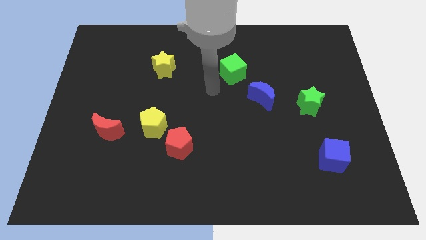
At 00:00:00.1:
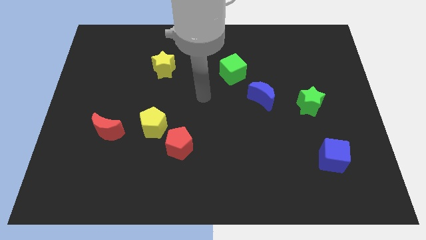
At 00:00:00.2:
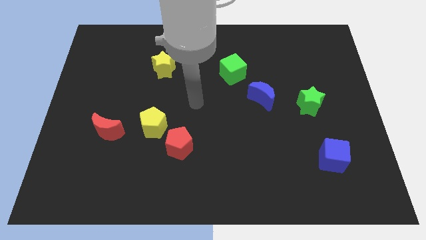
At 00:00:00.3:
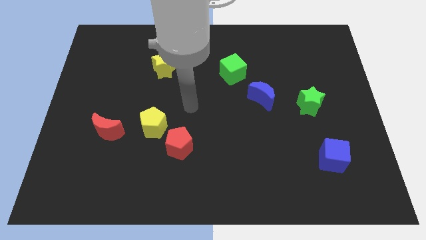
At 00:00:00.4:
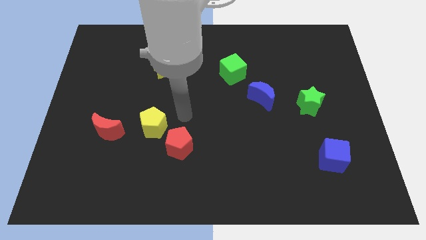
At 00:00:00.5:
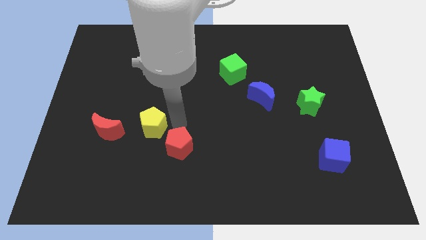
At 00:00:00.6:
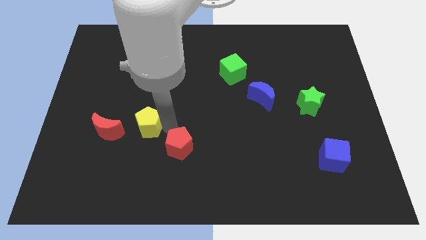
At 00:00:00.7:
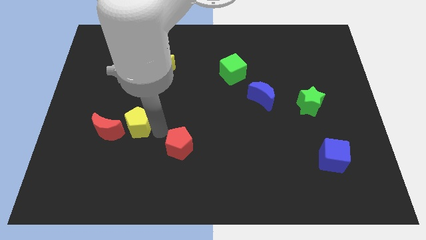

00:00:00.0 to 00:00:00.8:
pull the red pentagon apart from the yellow pentagon

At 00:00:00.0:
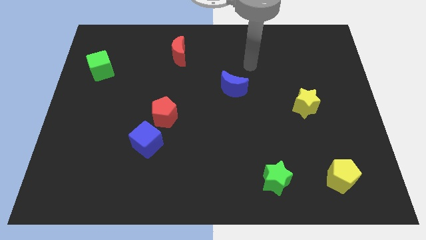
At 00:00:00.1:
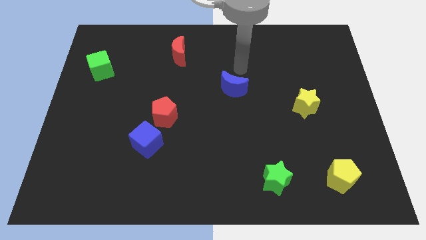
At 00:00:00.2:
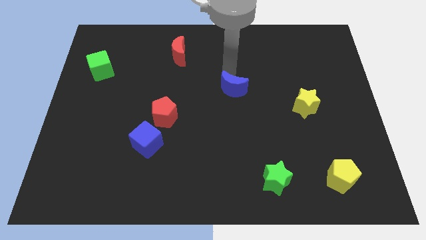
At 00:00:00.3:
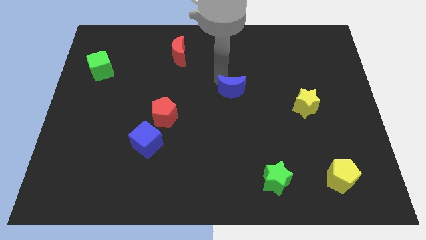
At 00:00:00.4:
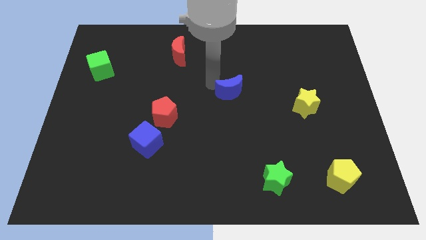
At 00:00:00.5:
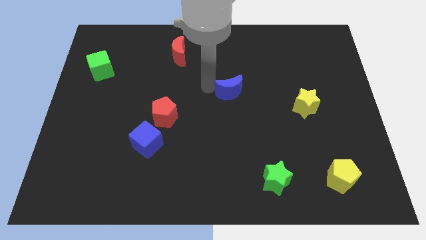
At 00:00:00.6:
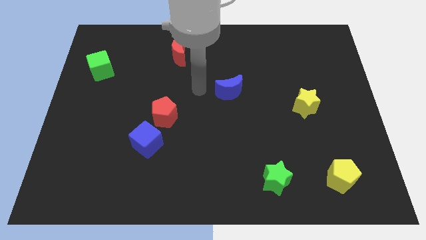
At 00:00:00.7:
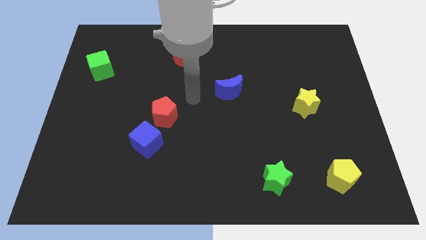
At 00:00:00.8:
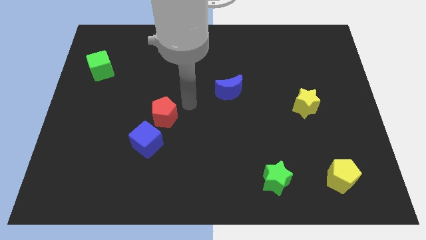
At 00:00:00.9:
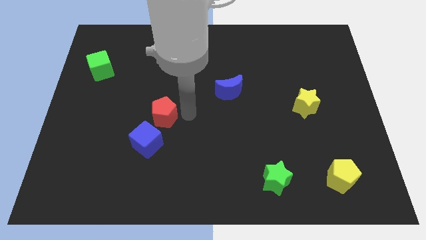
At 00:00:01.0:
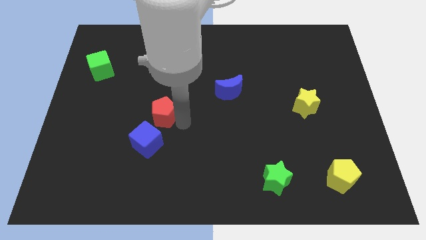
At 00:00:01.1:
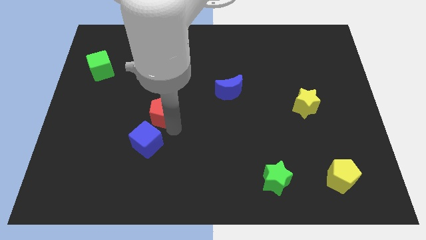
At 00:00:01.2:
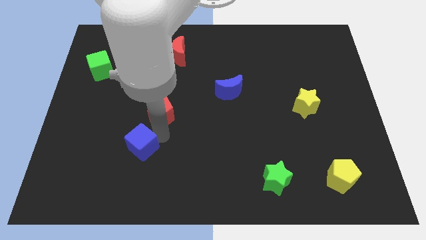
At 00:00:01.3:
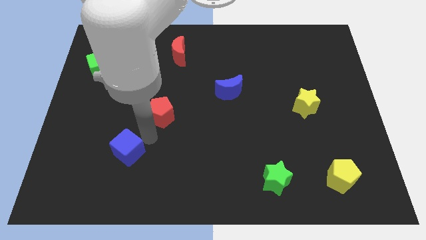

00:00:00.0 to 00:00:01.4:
pull the red pentagon apart from the blue cube

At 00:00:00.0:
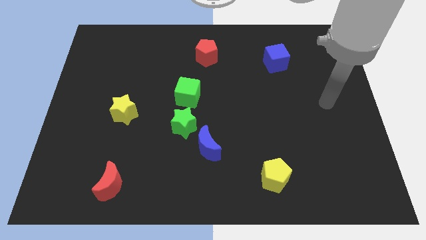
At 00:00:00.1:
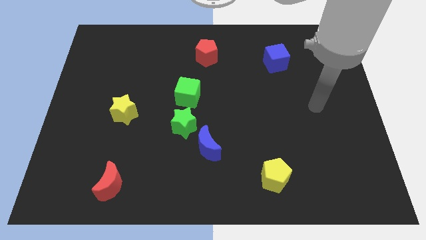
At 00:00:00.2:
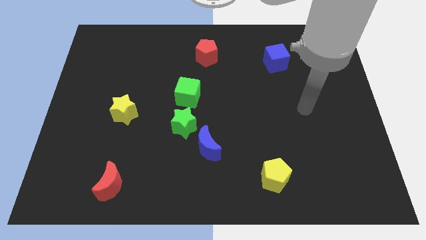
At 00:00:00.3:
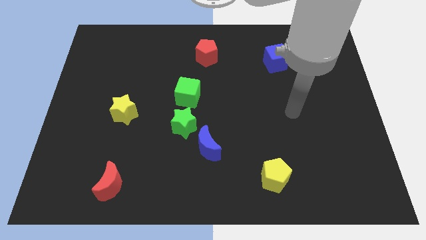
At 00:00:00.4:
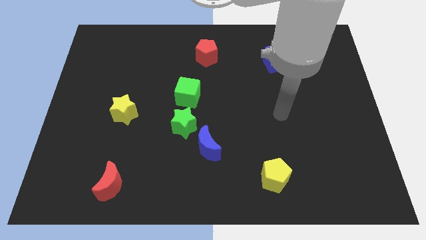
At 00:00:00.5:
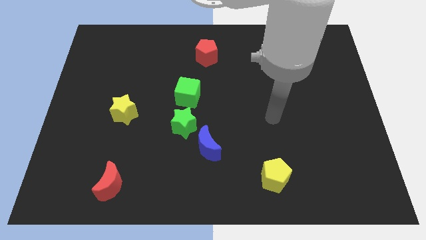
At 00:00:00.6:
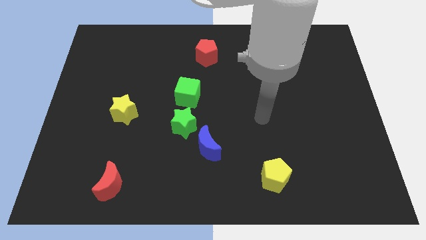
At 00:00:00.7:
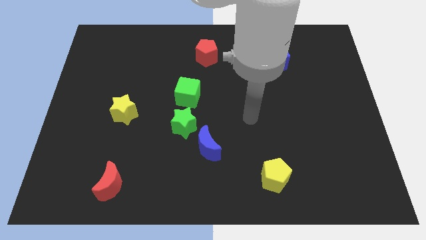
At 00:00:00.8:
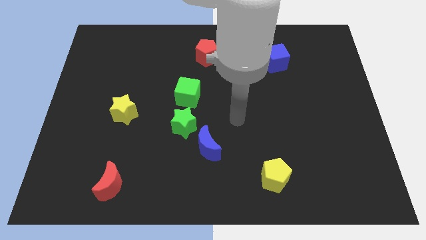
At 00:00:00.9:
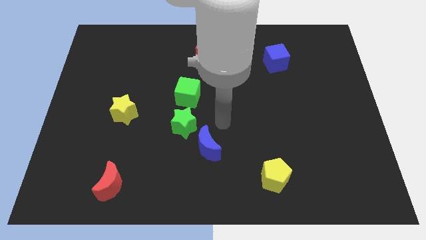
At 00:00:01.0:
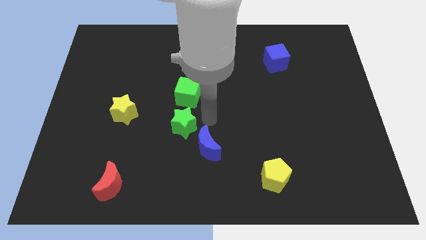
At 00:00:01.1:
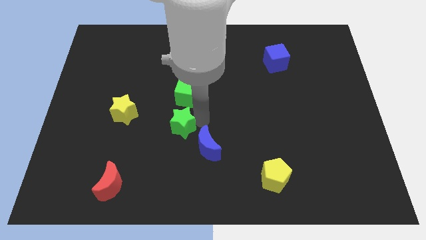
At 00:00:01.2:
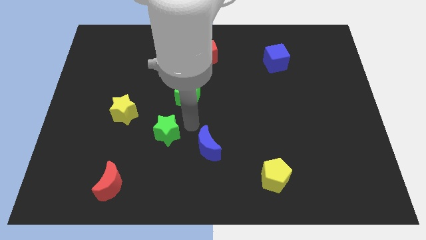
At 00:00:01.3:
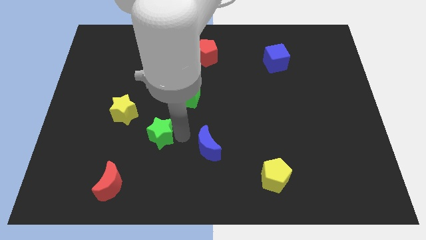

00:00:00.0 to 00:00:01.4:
separate the blue moon from the green star

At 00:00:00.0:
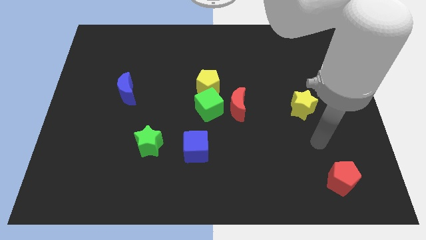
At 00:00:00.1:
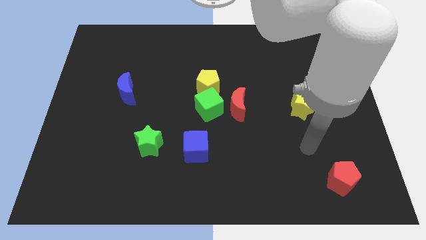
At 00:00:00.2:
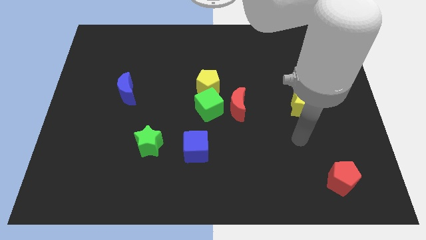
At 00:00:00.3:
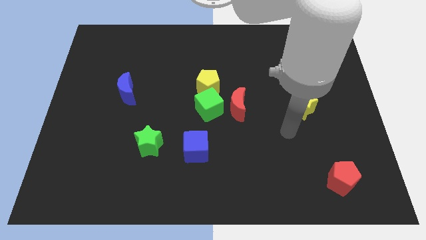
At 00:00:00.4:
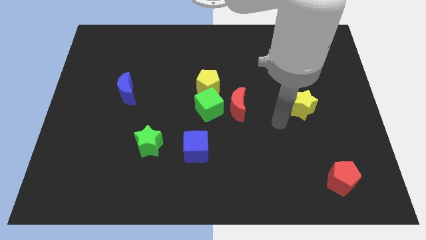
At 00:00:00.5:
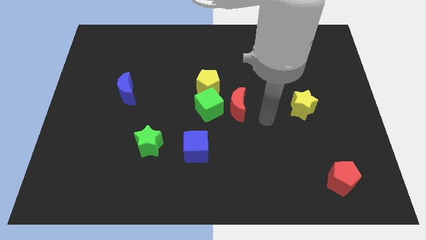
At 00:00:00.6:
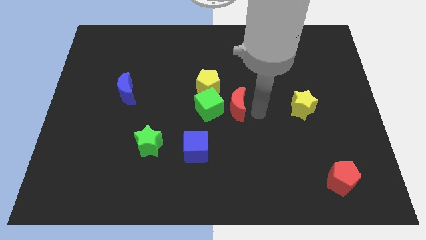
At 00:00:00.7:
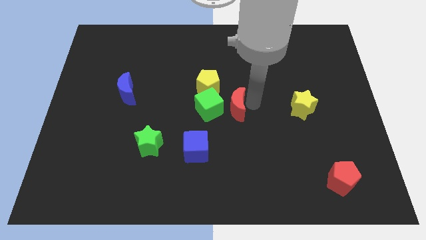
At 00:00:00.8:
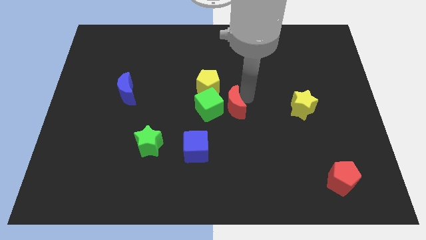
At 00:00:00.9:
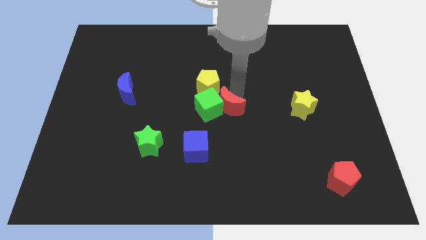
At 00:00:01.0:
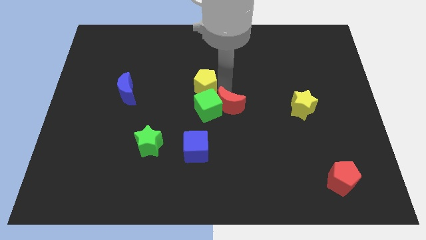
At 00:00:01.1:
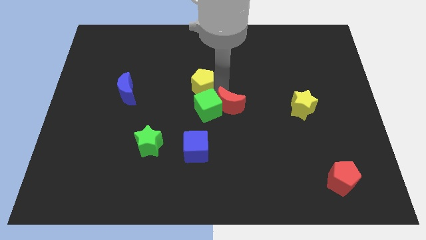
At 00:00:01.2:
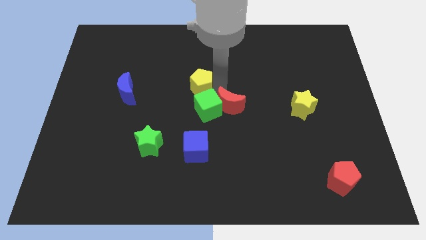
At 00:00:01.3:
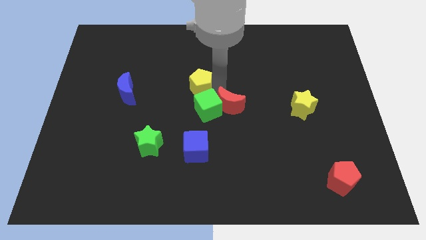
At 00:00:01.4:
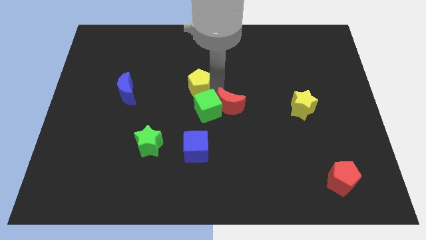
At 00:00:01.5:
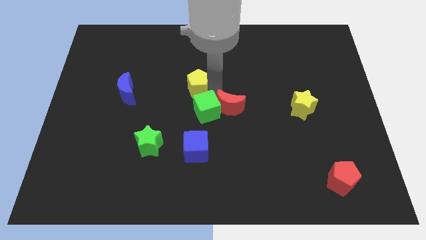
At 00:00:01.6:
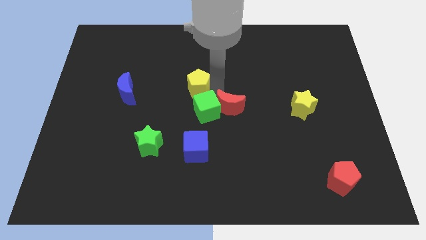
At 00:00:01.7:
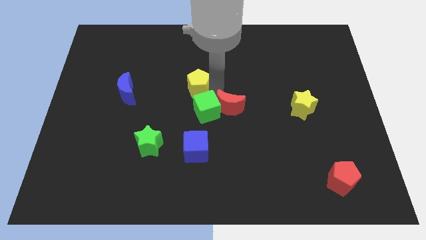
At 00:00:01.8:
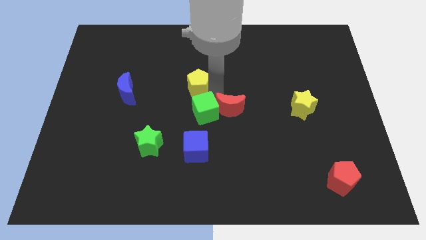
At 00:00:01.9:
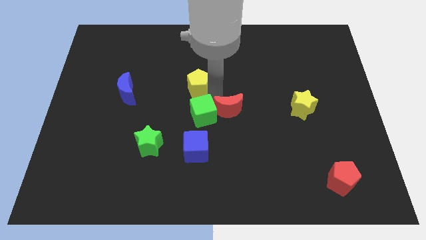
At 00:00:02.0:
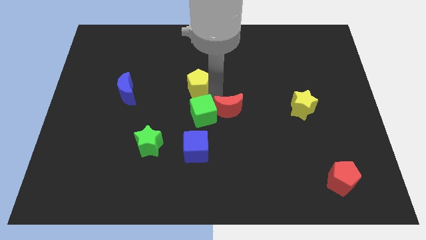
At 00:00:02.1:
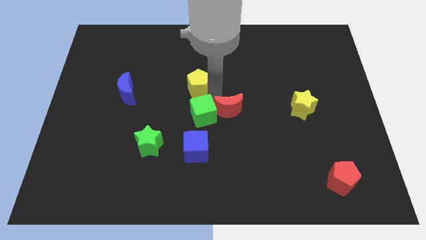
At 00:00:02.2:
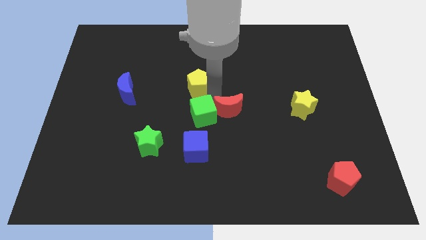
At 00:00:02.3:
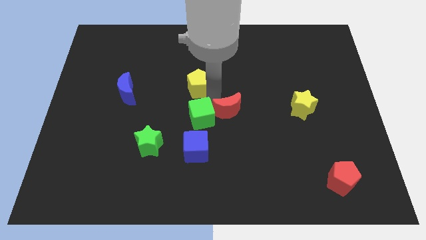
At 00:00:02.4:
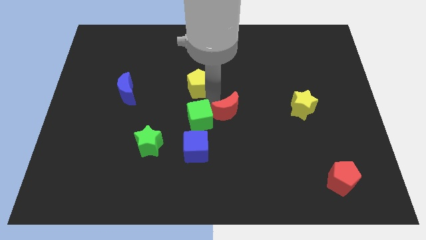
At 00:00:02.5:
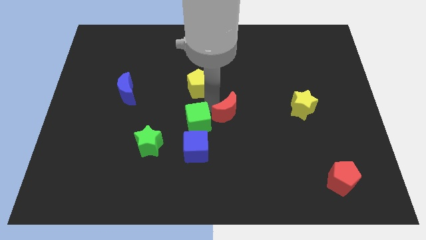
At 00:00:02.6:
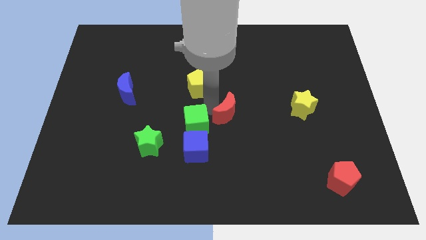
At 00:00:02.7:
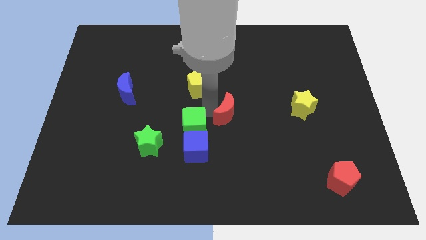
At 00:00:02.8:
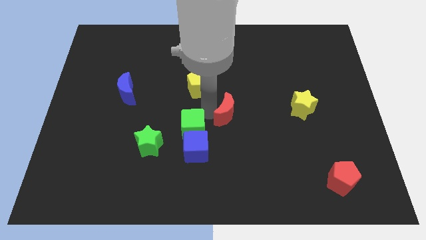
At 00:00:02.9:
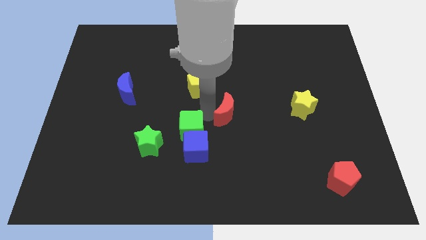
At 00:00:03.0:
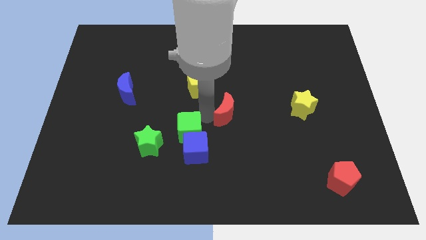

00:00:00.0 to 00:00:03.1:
pull the green cube apart from the yellow pentagon and red moon

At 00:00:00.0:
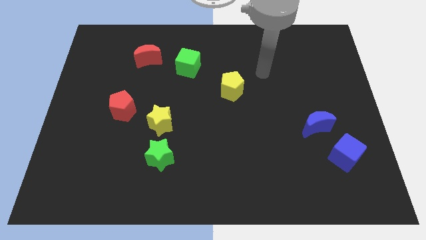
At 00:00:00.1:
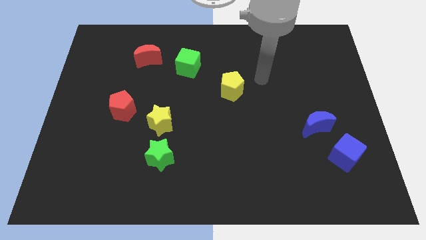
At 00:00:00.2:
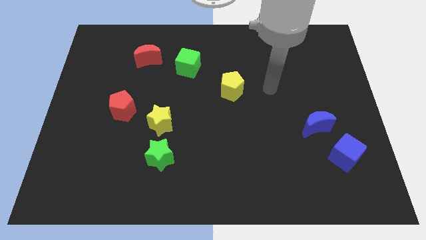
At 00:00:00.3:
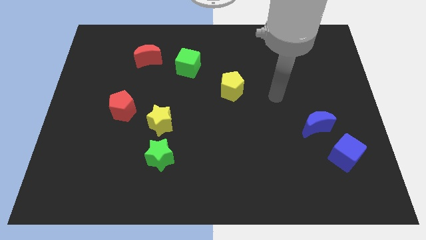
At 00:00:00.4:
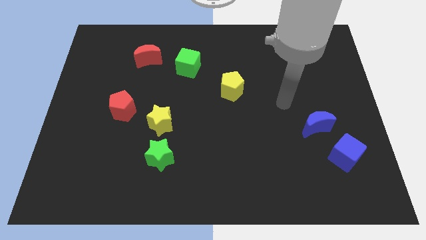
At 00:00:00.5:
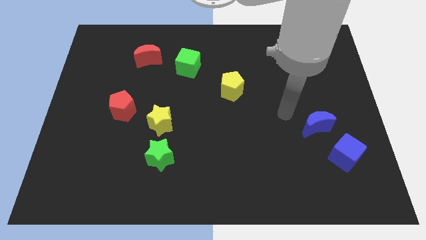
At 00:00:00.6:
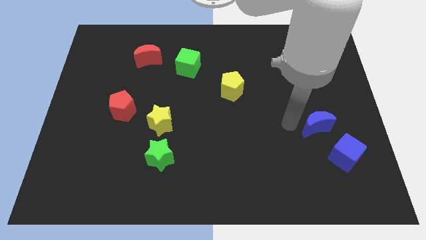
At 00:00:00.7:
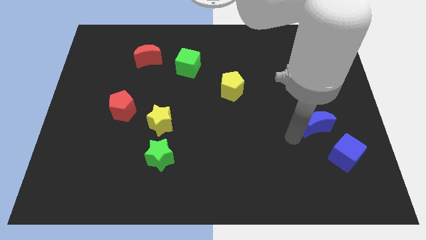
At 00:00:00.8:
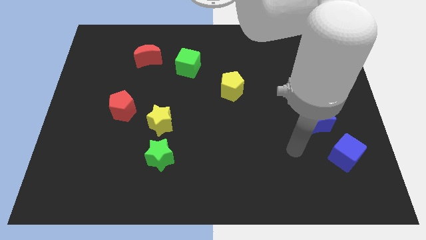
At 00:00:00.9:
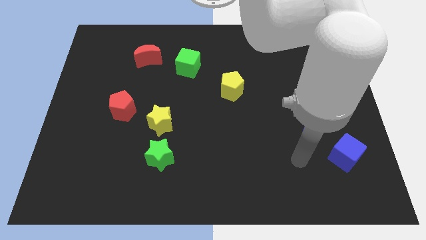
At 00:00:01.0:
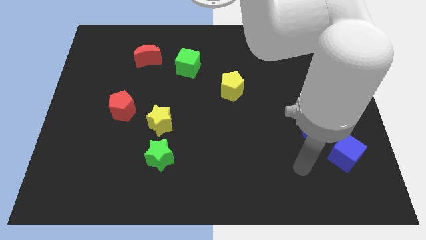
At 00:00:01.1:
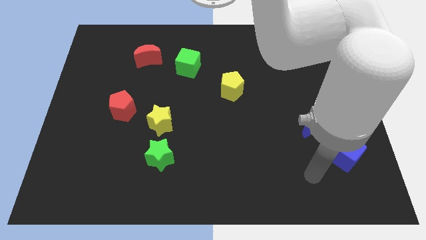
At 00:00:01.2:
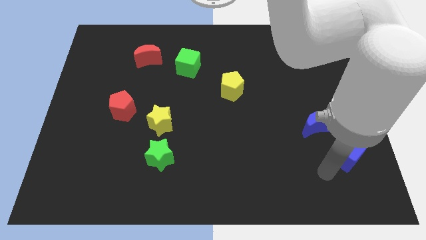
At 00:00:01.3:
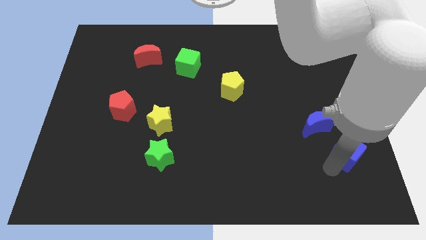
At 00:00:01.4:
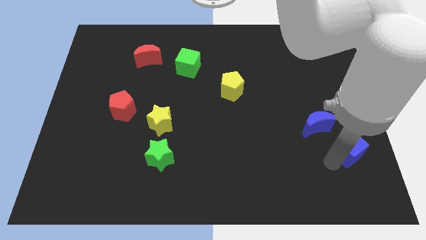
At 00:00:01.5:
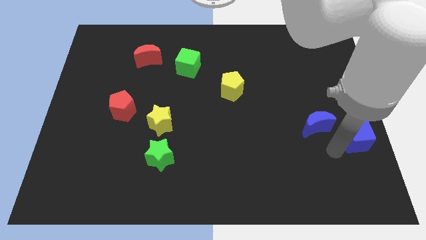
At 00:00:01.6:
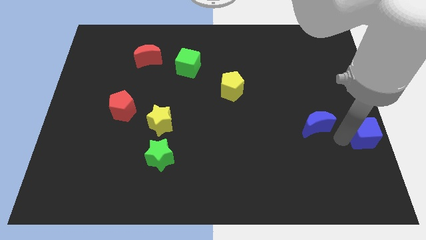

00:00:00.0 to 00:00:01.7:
move the blue moon away from the blue cube

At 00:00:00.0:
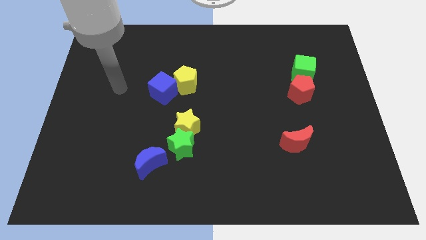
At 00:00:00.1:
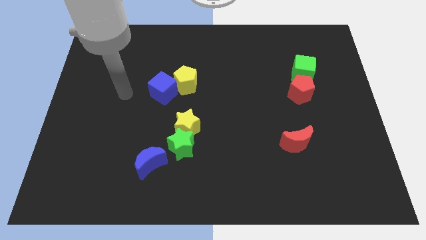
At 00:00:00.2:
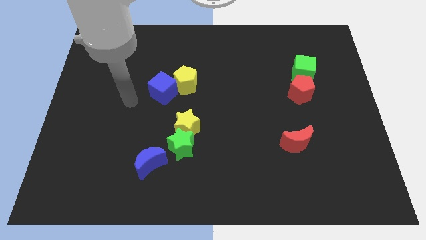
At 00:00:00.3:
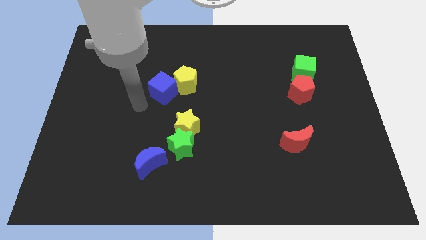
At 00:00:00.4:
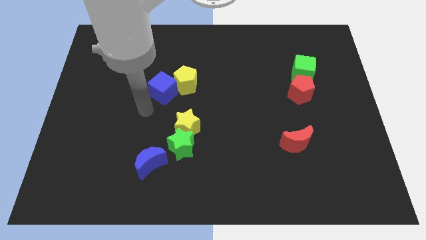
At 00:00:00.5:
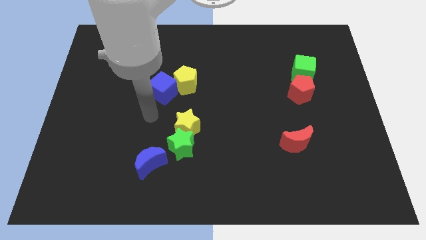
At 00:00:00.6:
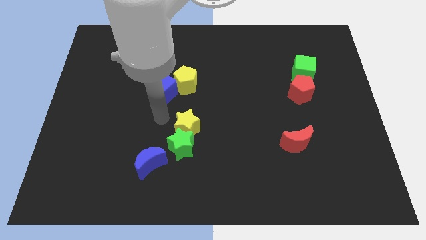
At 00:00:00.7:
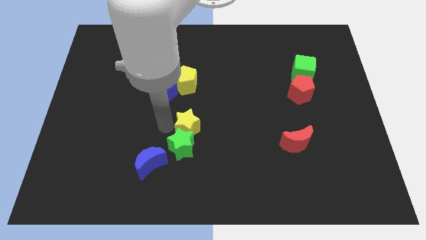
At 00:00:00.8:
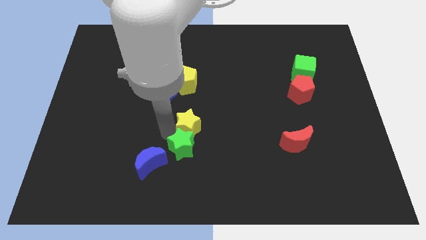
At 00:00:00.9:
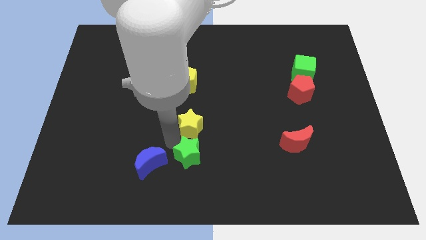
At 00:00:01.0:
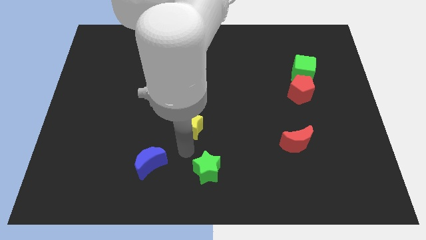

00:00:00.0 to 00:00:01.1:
separate the yellow star from the green star
